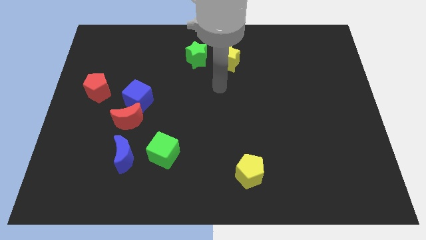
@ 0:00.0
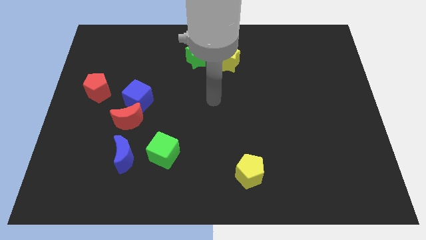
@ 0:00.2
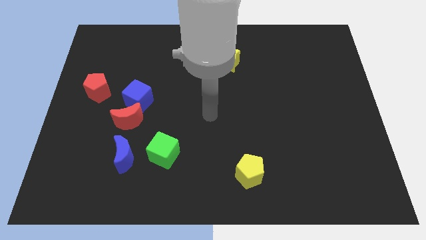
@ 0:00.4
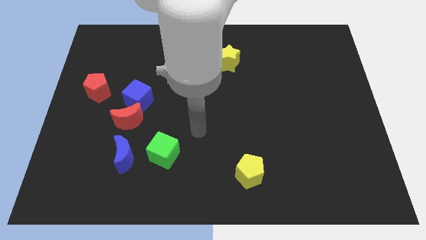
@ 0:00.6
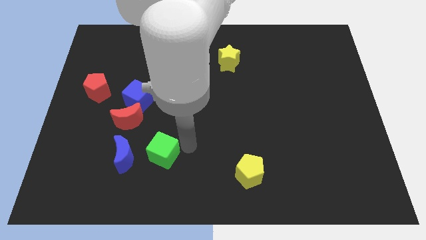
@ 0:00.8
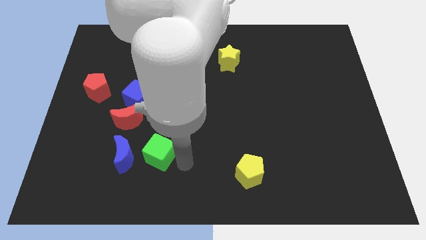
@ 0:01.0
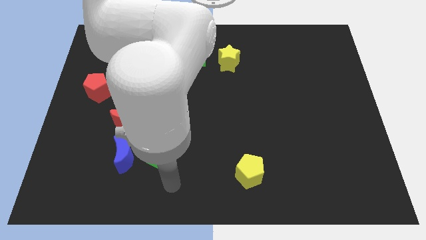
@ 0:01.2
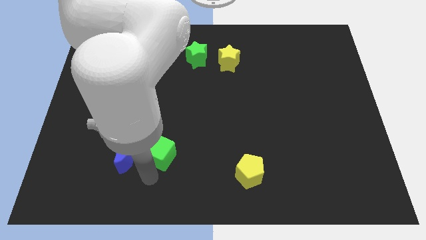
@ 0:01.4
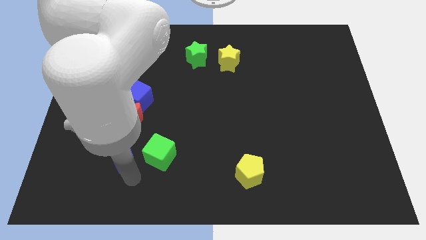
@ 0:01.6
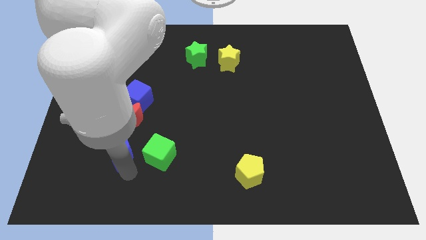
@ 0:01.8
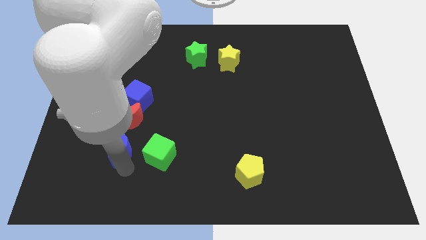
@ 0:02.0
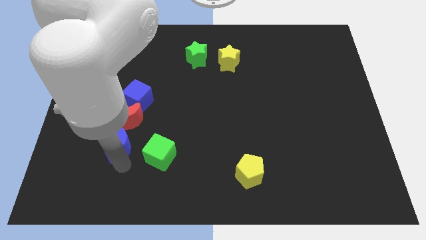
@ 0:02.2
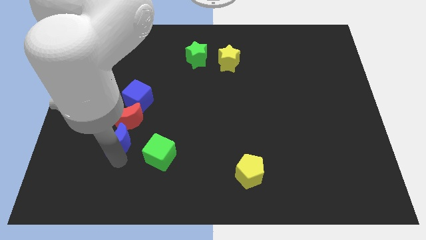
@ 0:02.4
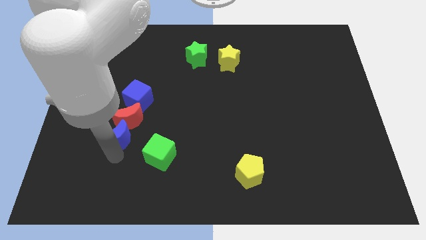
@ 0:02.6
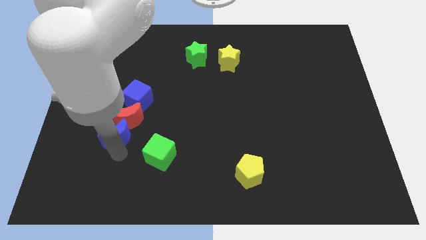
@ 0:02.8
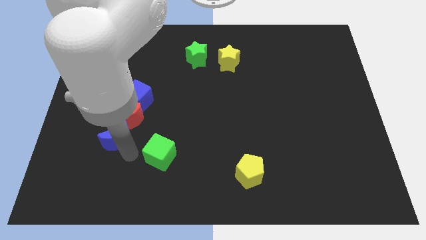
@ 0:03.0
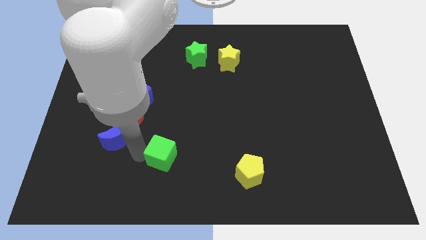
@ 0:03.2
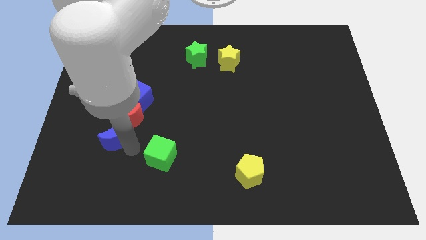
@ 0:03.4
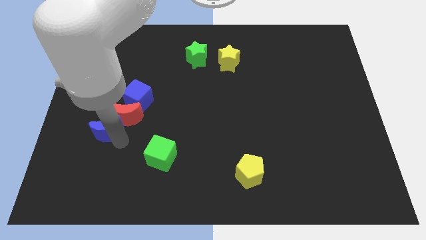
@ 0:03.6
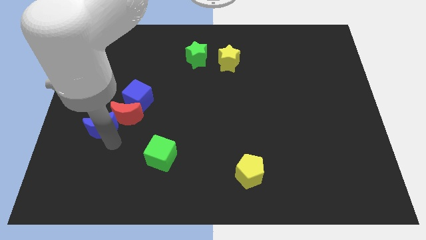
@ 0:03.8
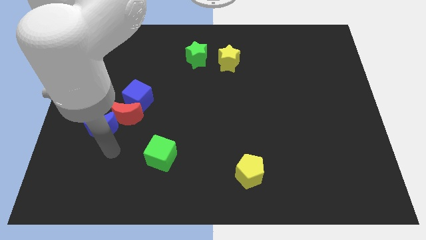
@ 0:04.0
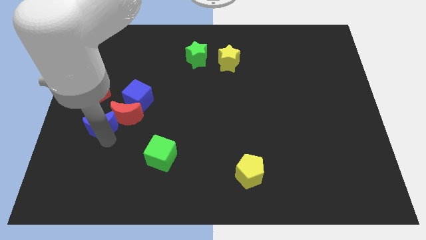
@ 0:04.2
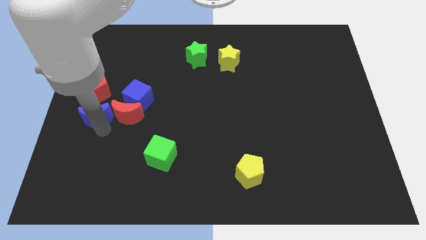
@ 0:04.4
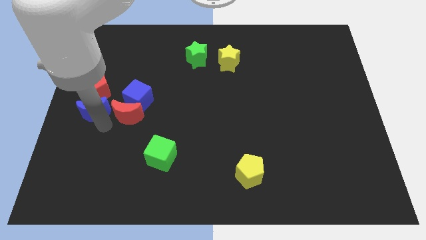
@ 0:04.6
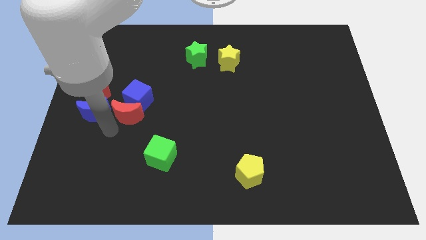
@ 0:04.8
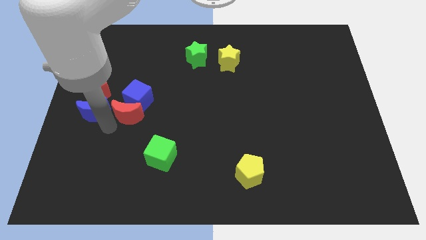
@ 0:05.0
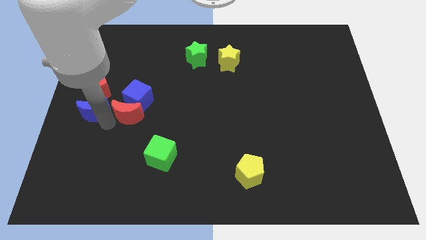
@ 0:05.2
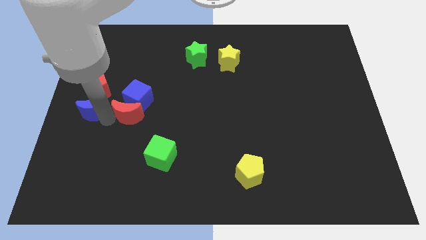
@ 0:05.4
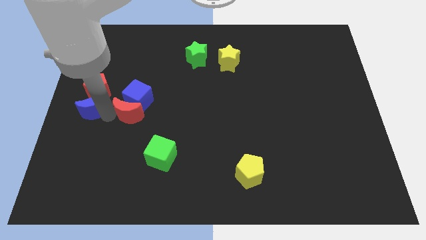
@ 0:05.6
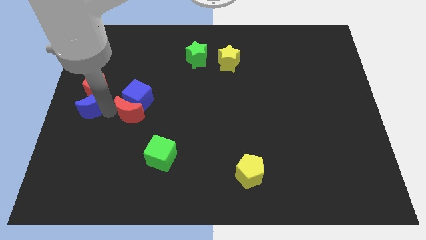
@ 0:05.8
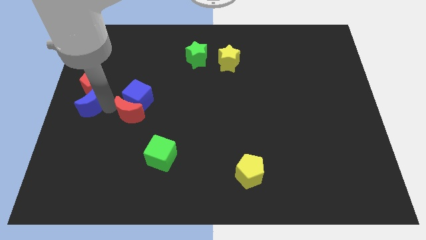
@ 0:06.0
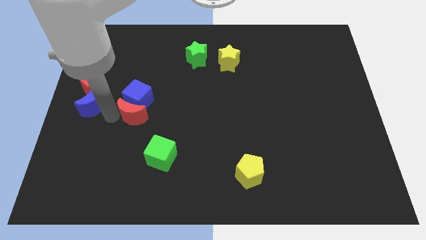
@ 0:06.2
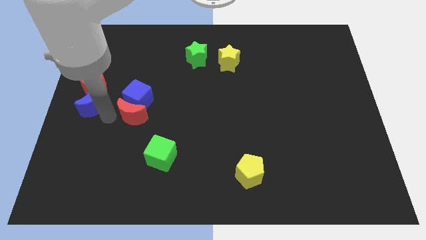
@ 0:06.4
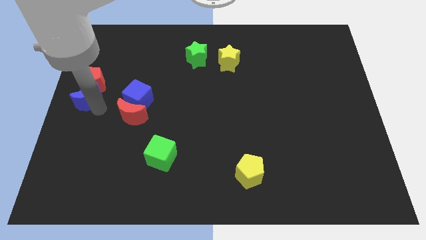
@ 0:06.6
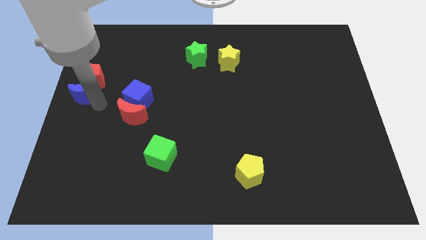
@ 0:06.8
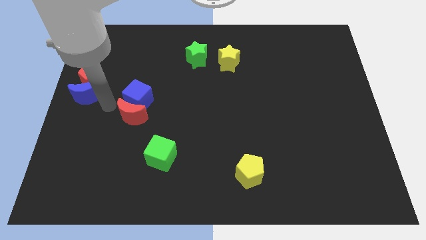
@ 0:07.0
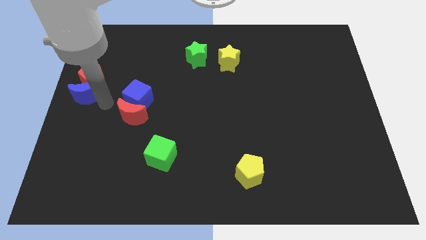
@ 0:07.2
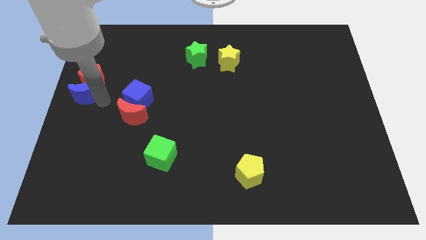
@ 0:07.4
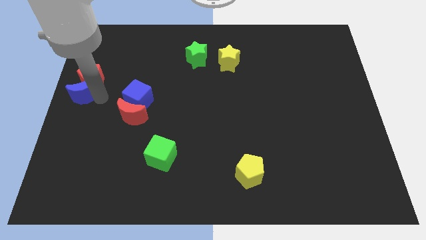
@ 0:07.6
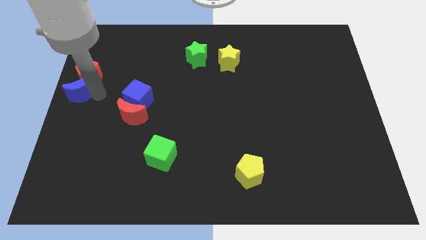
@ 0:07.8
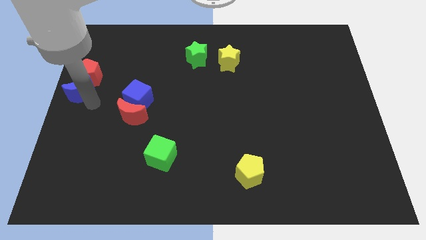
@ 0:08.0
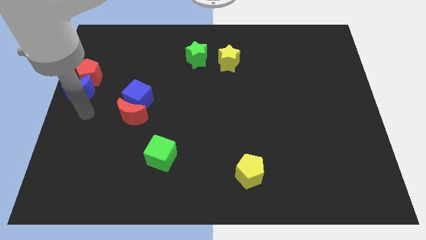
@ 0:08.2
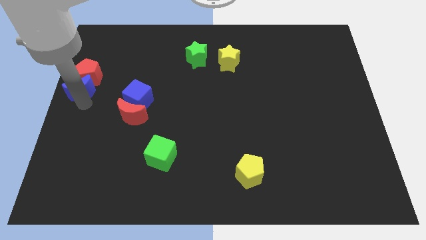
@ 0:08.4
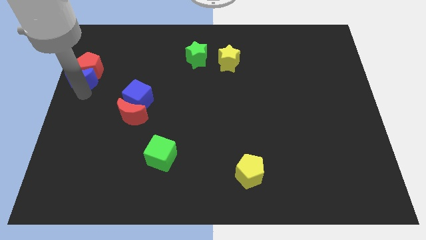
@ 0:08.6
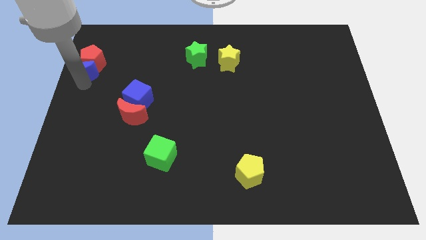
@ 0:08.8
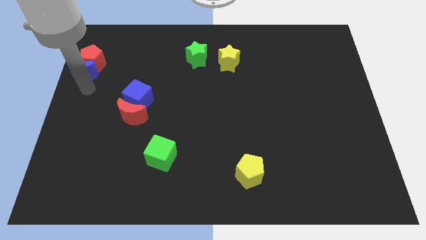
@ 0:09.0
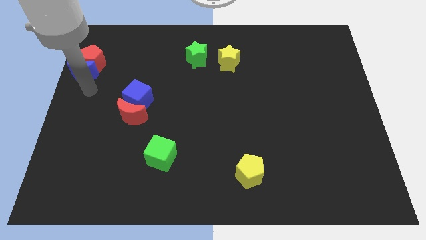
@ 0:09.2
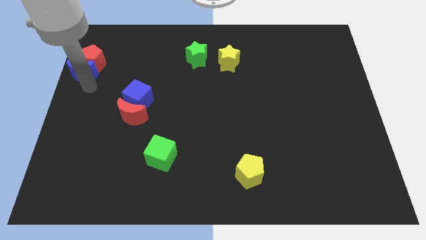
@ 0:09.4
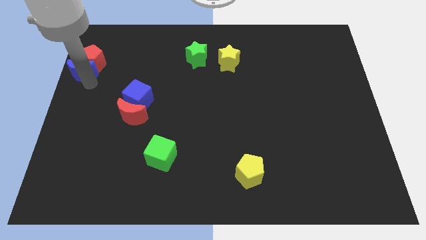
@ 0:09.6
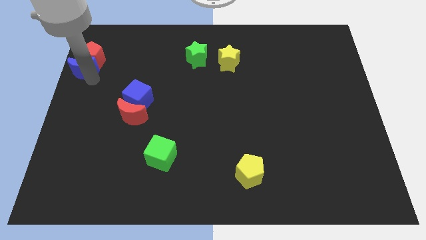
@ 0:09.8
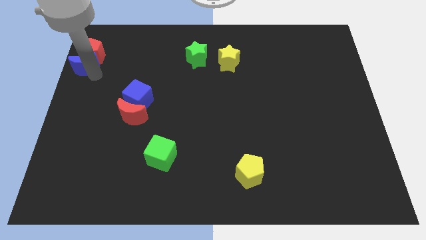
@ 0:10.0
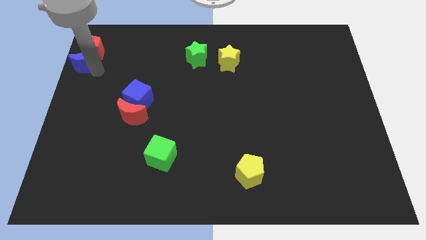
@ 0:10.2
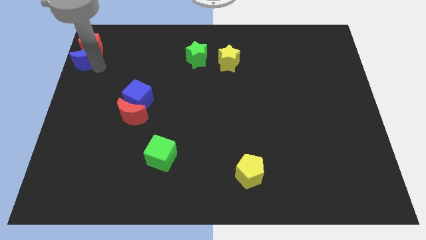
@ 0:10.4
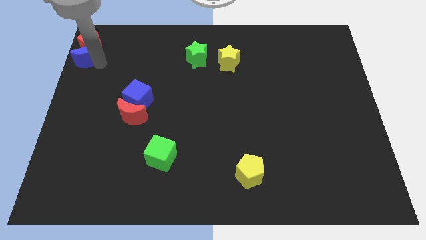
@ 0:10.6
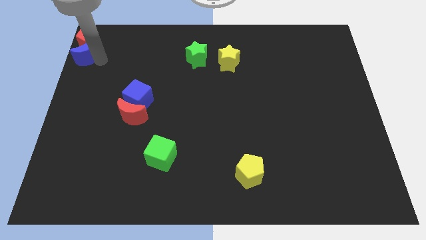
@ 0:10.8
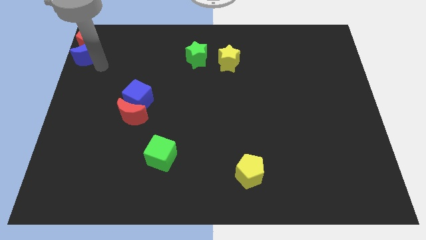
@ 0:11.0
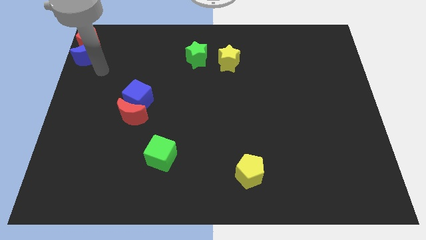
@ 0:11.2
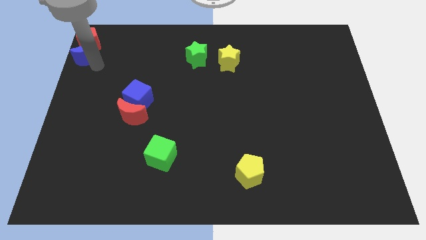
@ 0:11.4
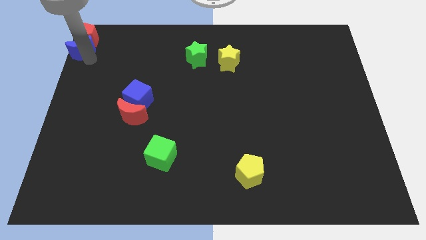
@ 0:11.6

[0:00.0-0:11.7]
move the blue moon to the upper left corner

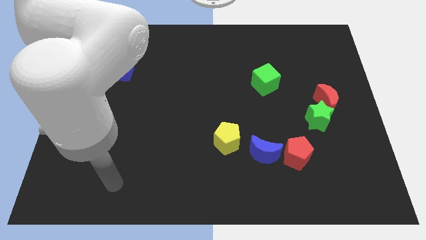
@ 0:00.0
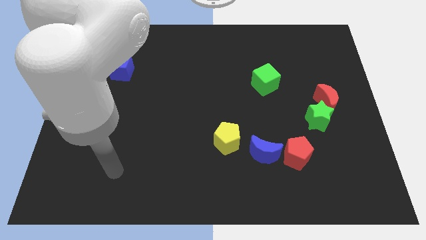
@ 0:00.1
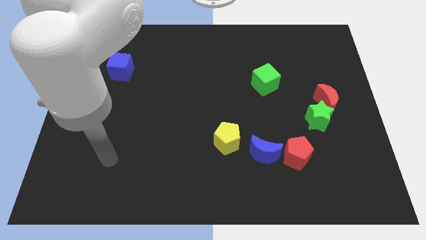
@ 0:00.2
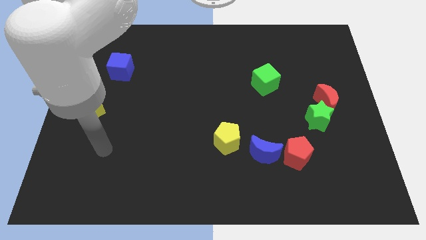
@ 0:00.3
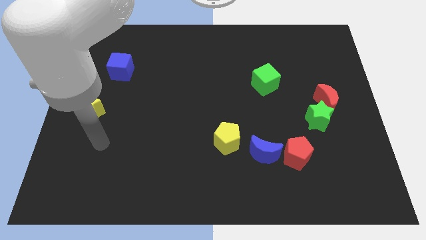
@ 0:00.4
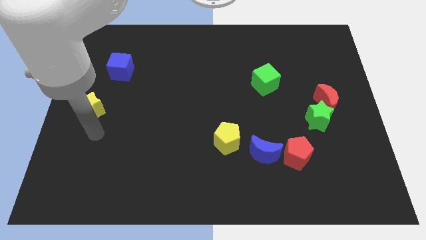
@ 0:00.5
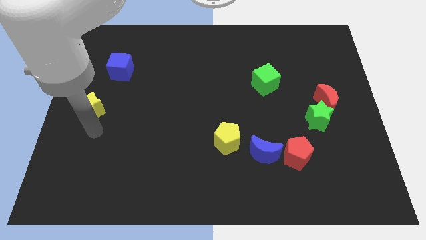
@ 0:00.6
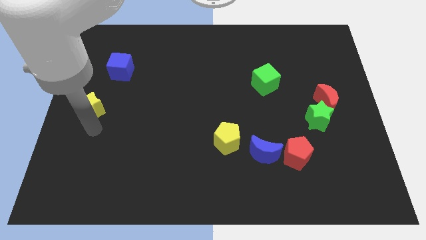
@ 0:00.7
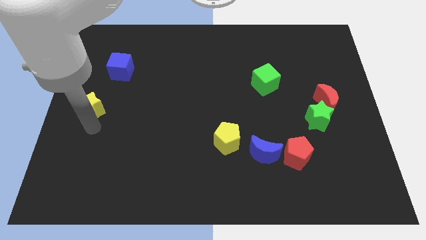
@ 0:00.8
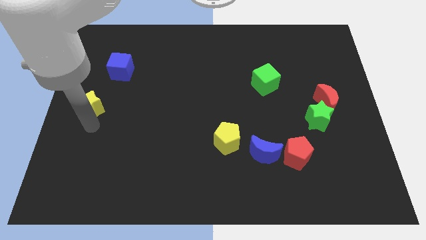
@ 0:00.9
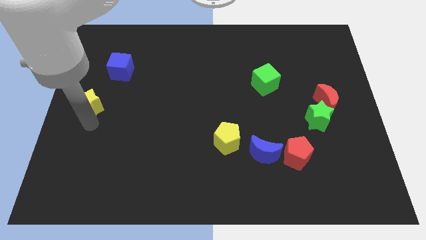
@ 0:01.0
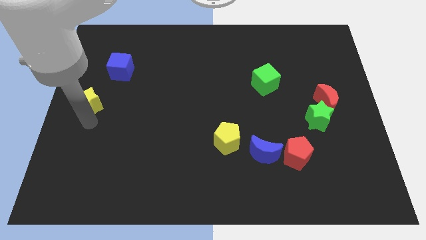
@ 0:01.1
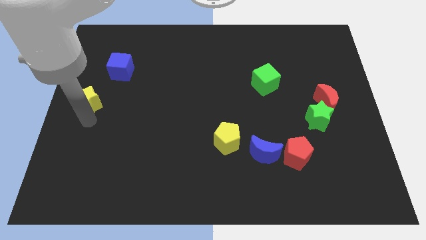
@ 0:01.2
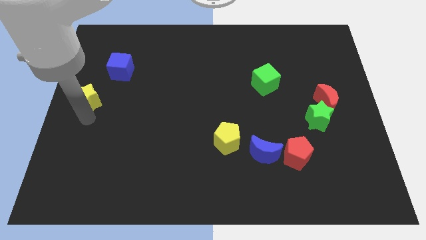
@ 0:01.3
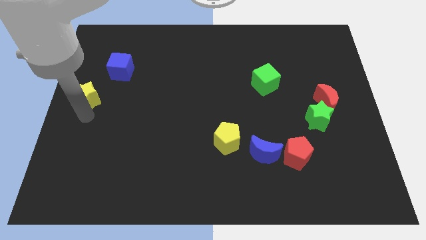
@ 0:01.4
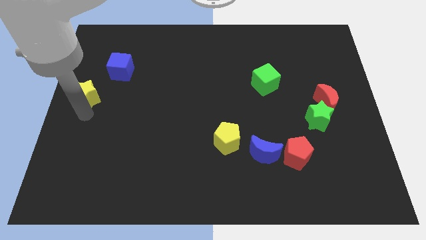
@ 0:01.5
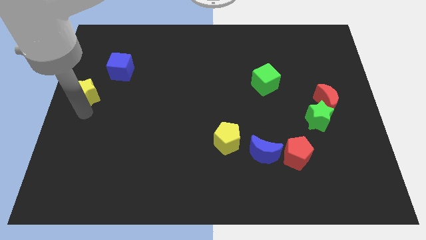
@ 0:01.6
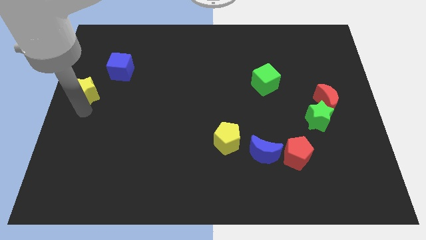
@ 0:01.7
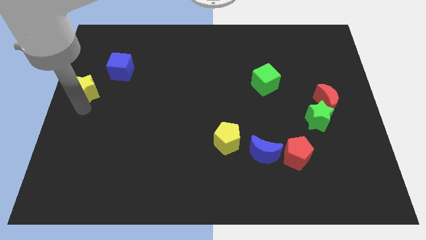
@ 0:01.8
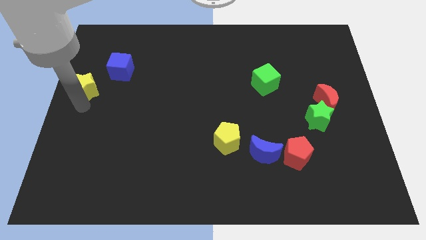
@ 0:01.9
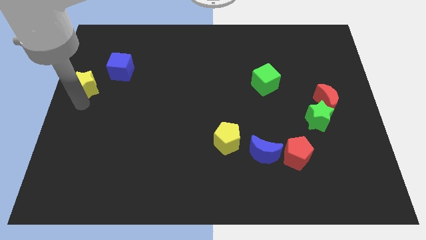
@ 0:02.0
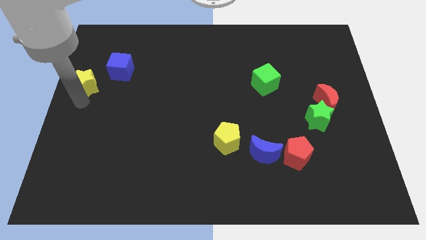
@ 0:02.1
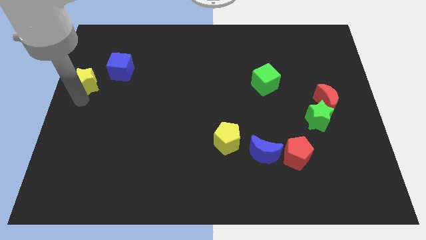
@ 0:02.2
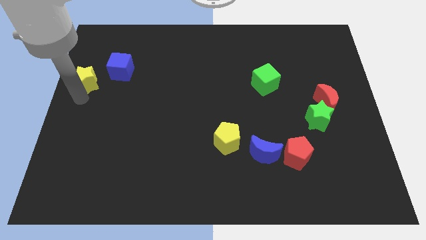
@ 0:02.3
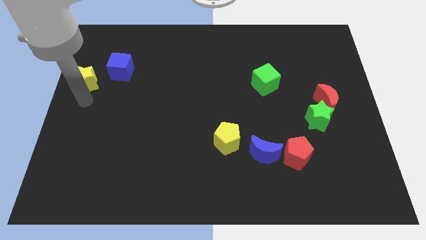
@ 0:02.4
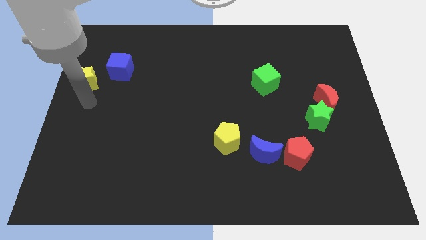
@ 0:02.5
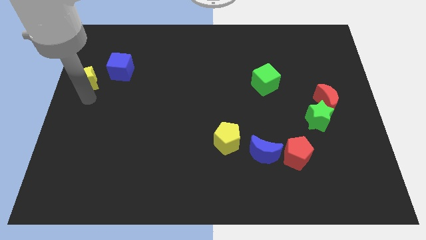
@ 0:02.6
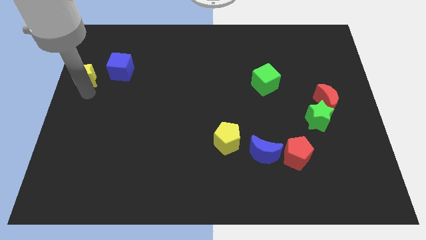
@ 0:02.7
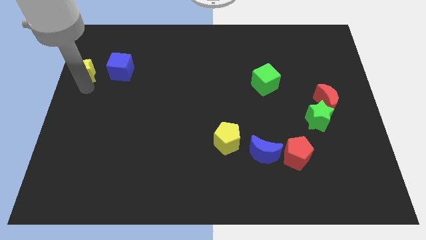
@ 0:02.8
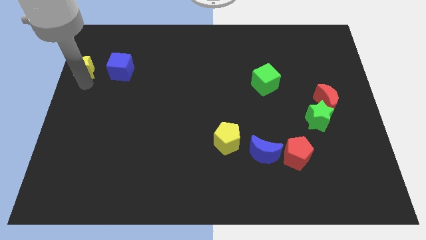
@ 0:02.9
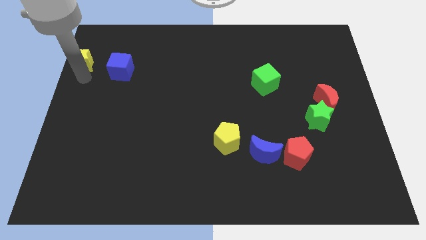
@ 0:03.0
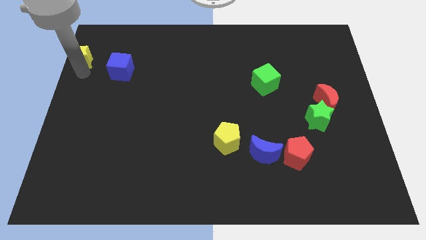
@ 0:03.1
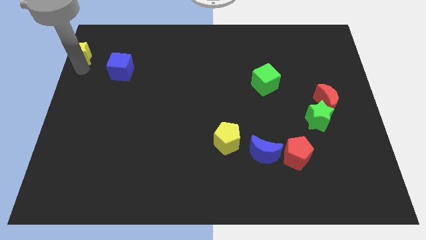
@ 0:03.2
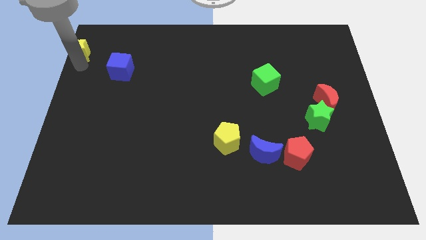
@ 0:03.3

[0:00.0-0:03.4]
push the yellow star to the top left of the board
